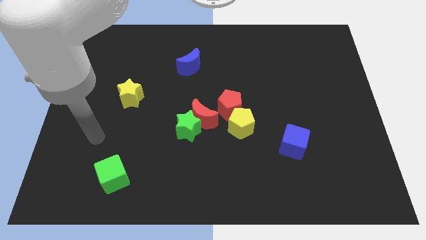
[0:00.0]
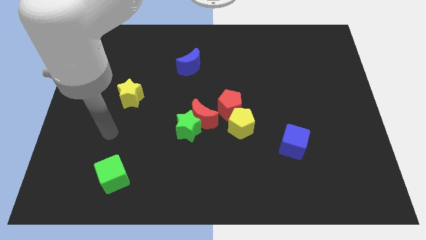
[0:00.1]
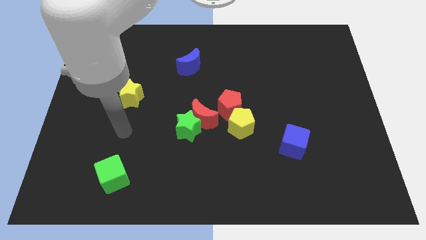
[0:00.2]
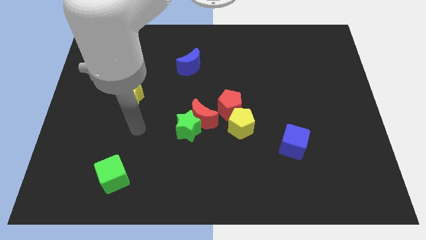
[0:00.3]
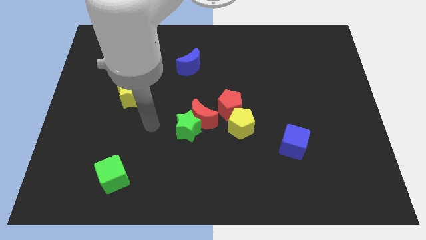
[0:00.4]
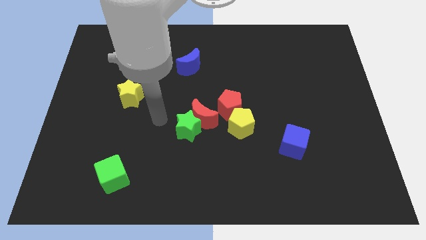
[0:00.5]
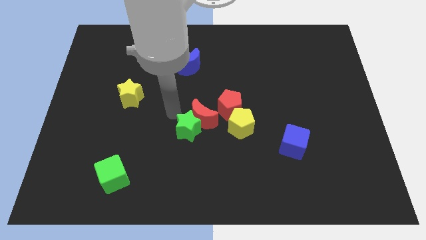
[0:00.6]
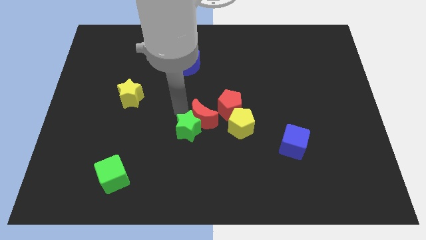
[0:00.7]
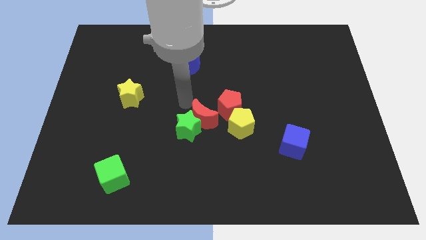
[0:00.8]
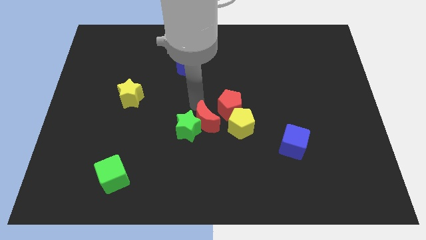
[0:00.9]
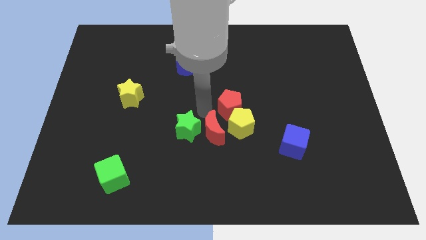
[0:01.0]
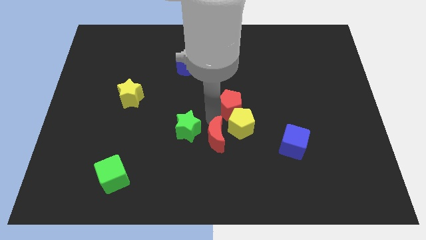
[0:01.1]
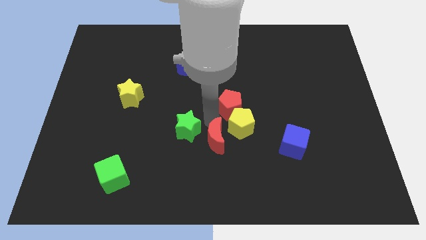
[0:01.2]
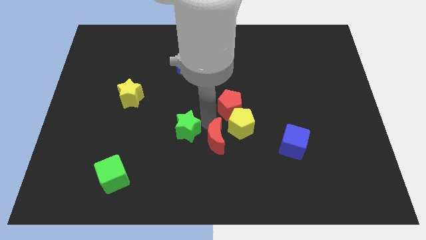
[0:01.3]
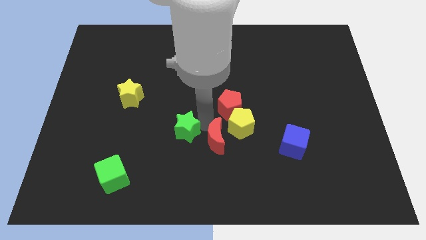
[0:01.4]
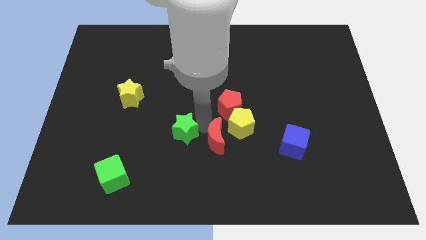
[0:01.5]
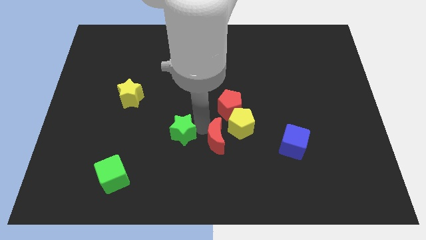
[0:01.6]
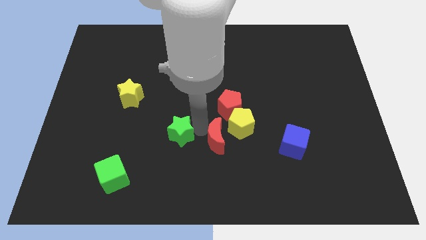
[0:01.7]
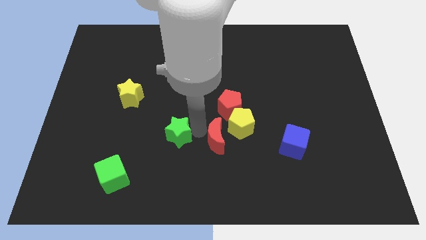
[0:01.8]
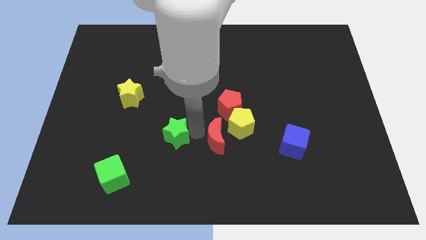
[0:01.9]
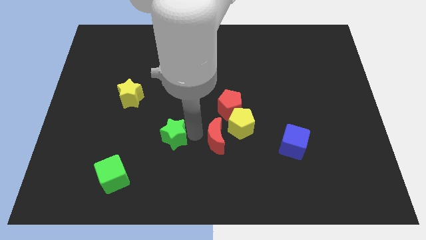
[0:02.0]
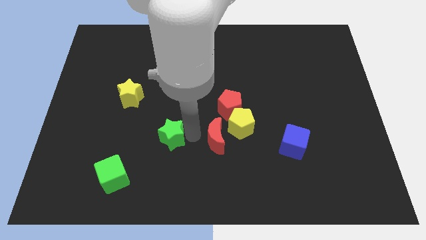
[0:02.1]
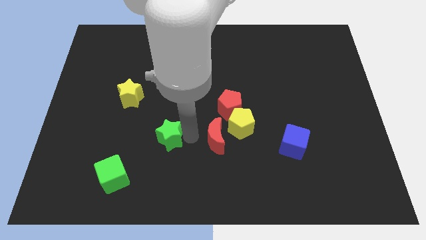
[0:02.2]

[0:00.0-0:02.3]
move the green star away from the red moon

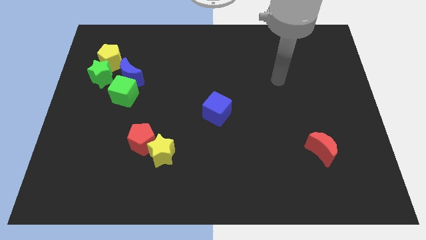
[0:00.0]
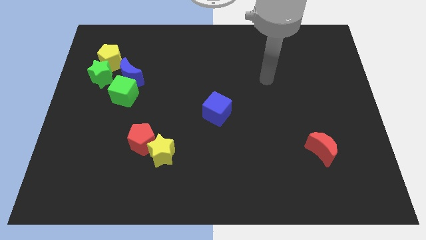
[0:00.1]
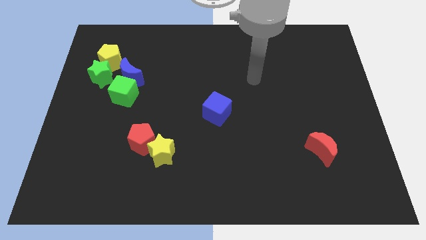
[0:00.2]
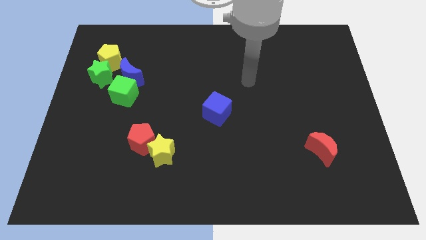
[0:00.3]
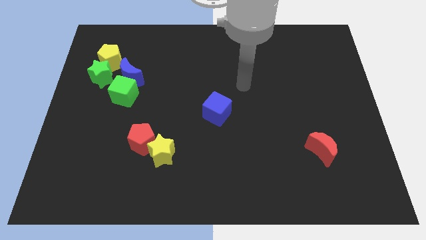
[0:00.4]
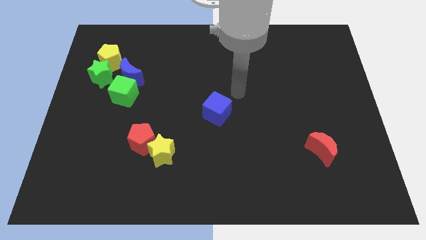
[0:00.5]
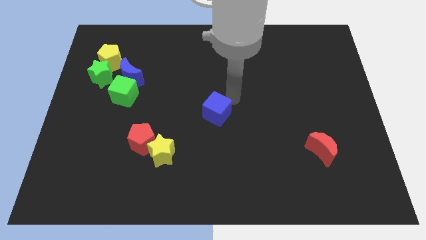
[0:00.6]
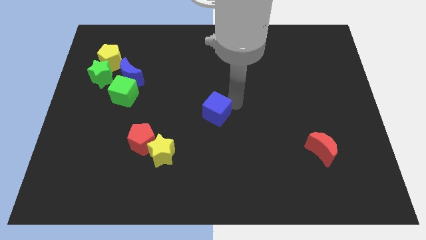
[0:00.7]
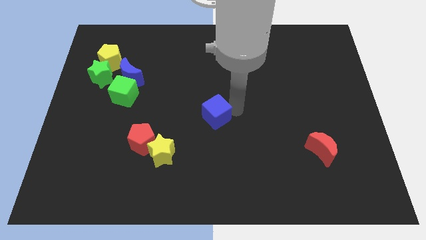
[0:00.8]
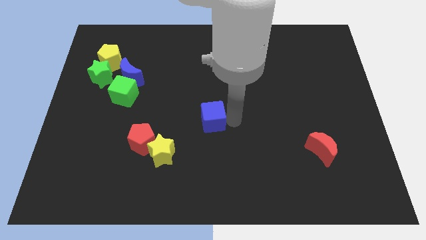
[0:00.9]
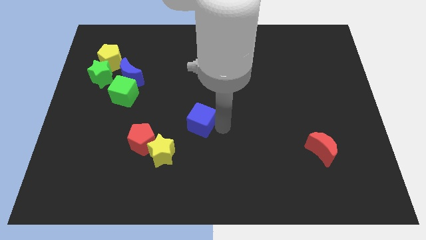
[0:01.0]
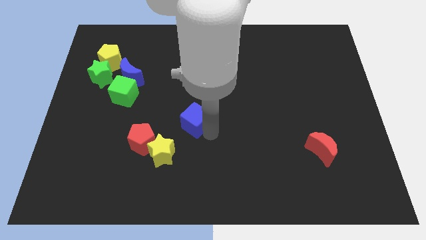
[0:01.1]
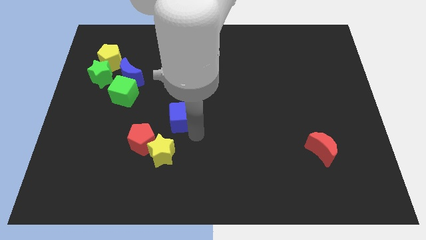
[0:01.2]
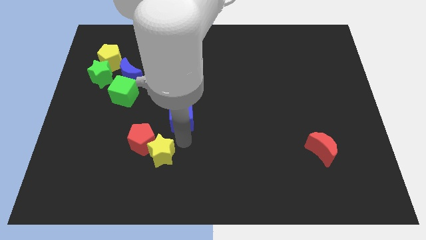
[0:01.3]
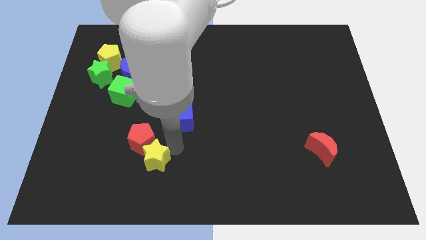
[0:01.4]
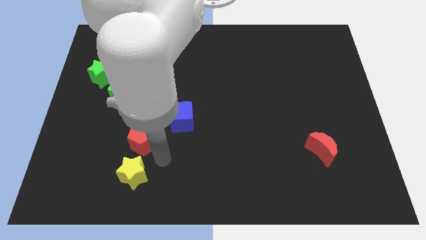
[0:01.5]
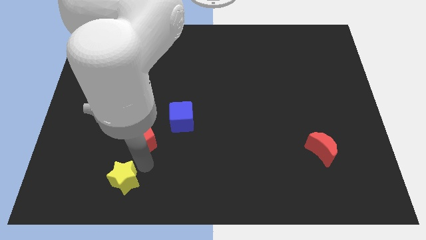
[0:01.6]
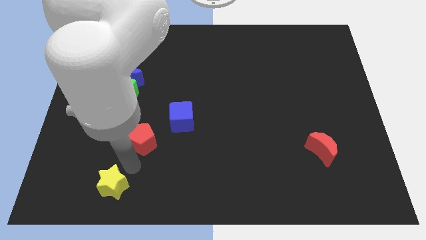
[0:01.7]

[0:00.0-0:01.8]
separate the red pentagon from the yellow star

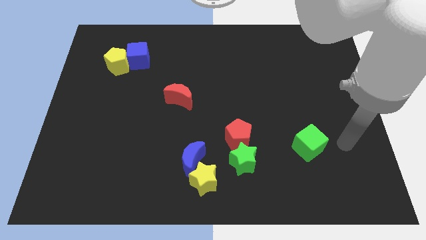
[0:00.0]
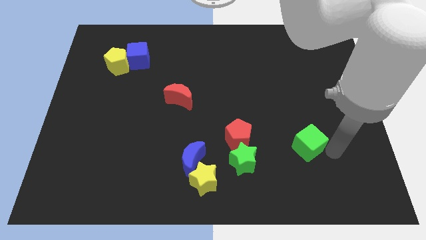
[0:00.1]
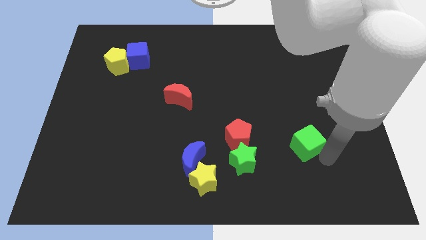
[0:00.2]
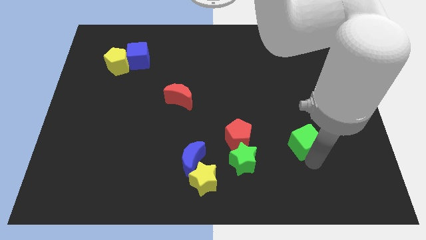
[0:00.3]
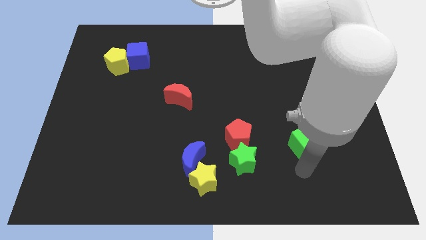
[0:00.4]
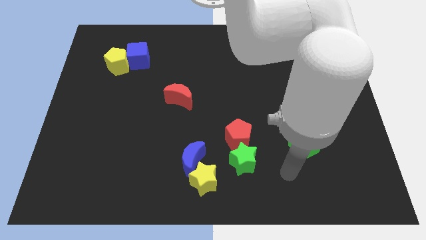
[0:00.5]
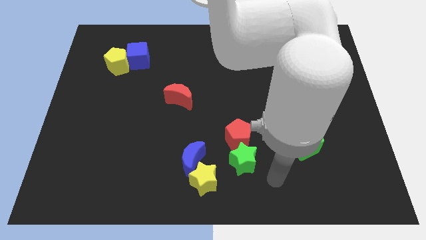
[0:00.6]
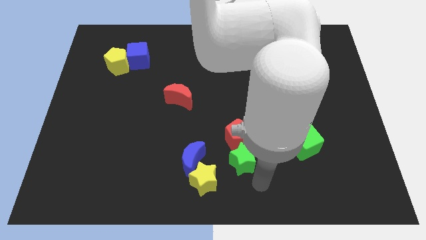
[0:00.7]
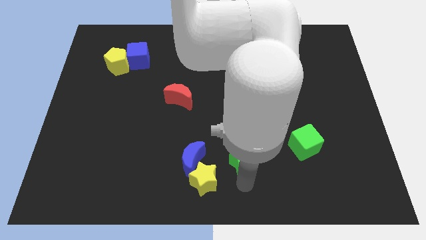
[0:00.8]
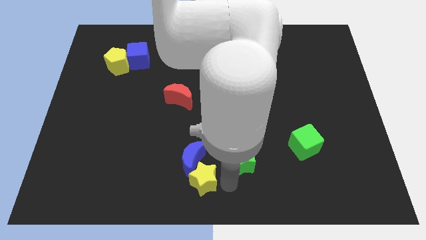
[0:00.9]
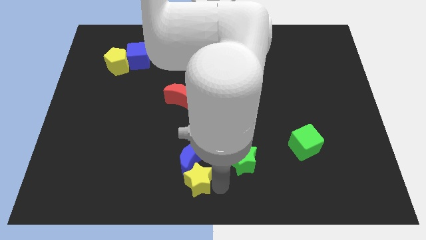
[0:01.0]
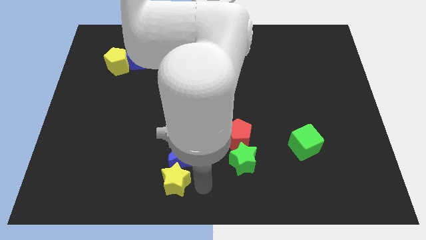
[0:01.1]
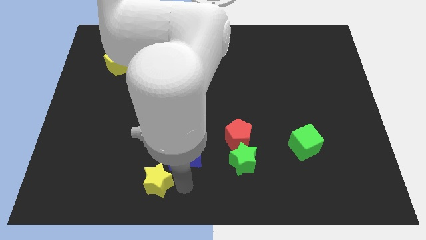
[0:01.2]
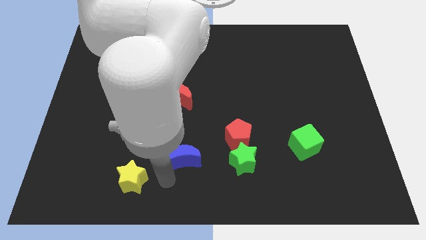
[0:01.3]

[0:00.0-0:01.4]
pull the blue moon apart from the yellow star

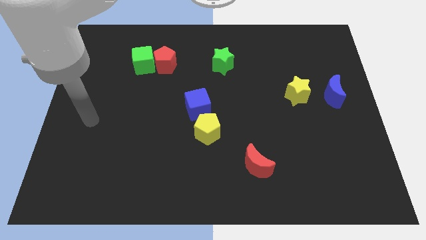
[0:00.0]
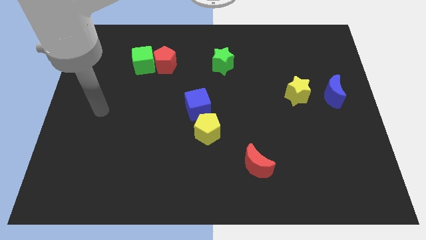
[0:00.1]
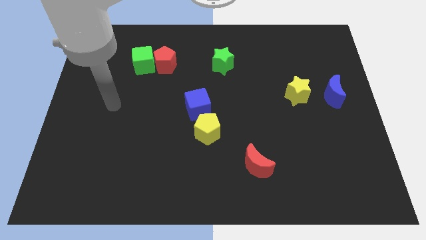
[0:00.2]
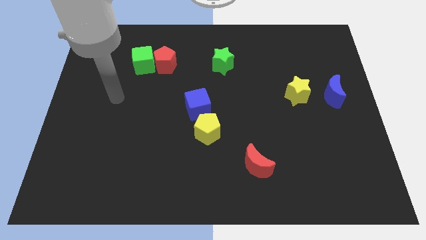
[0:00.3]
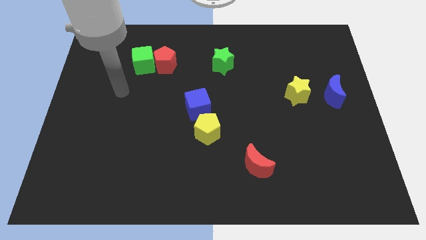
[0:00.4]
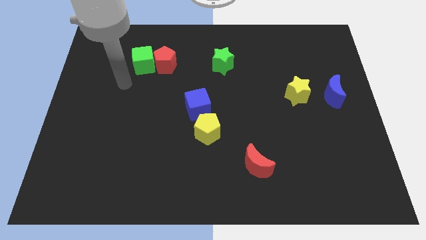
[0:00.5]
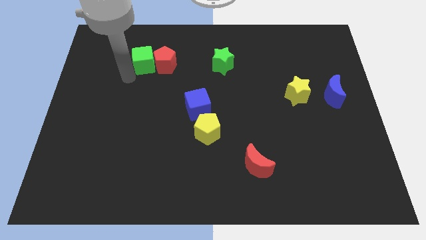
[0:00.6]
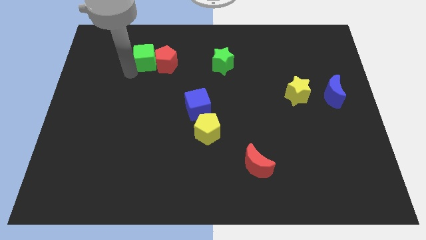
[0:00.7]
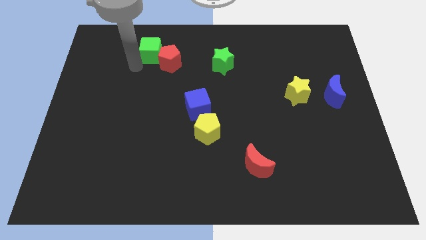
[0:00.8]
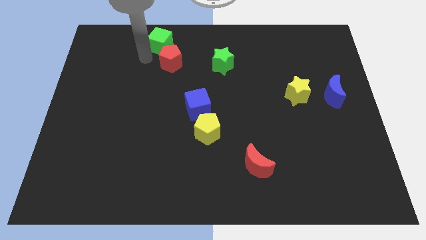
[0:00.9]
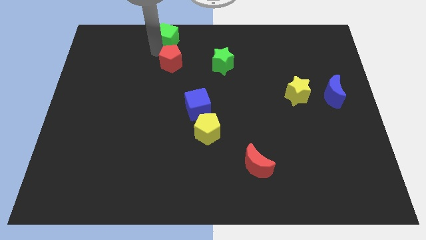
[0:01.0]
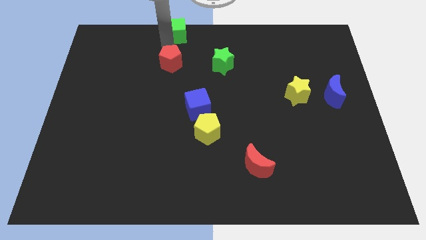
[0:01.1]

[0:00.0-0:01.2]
separate the red pentagon from the green cube

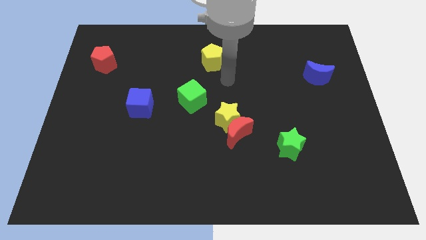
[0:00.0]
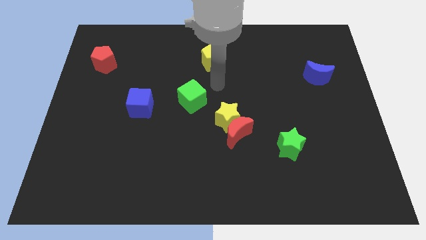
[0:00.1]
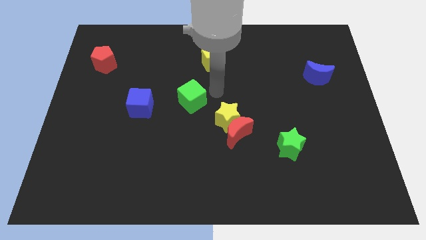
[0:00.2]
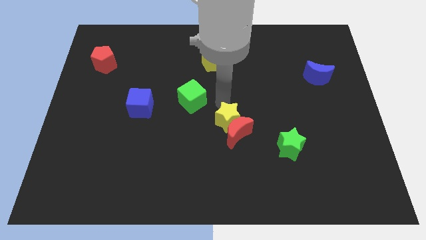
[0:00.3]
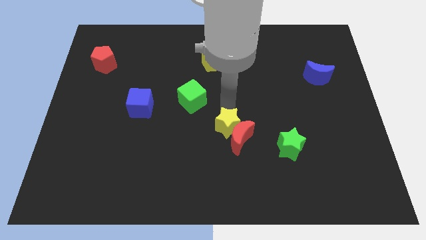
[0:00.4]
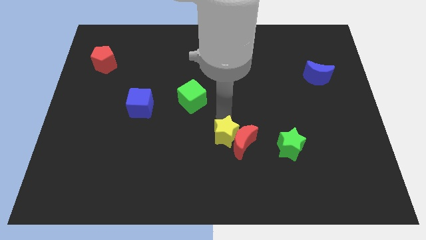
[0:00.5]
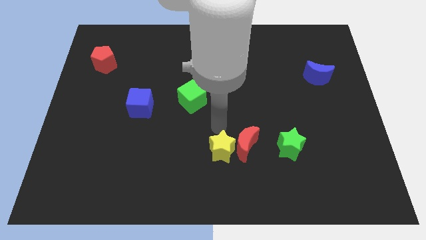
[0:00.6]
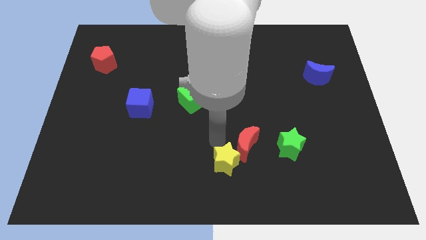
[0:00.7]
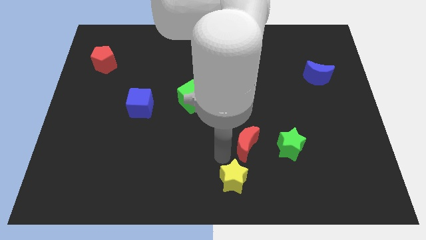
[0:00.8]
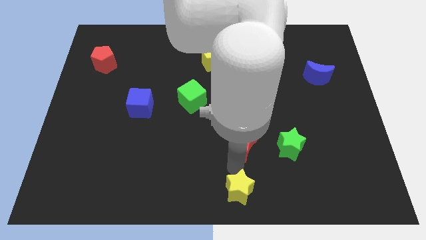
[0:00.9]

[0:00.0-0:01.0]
separate the red moon from the yellow star

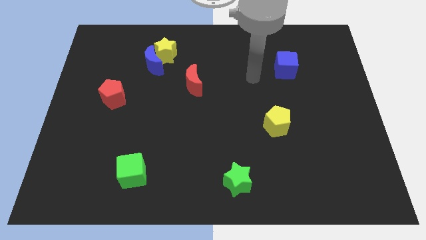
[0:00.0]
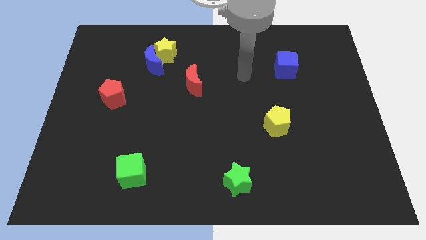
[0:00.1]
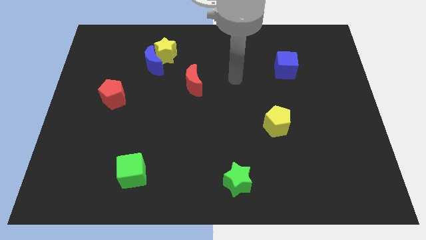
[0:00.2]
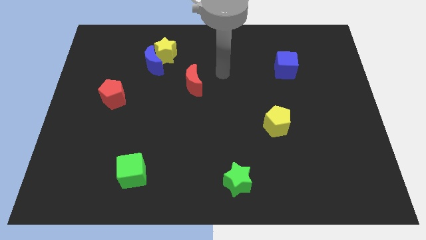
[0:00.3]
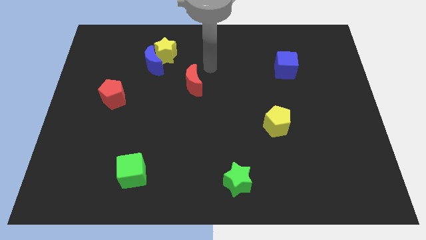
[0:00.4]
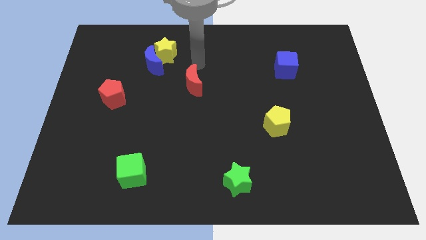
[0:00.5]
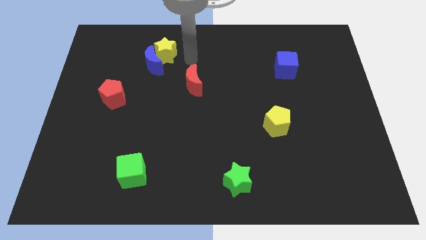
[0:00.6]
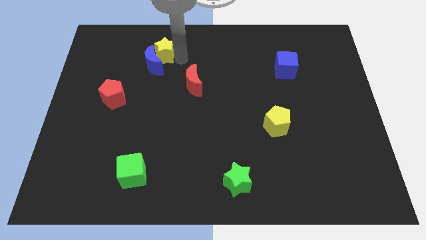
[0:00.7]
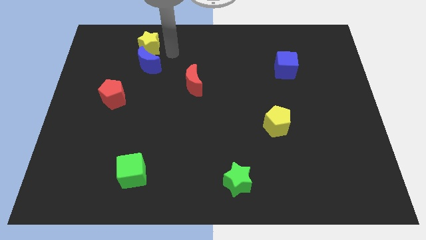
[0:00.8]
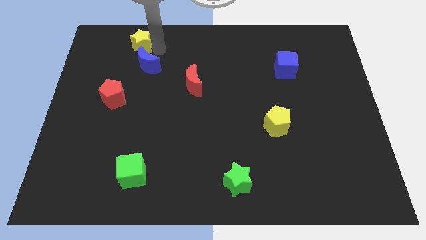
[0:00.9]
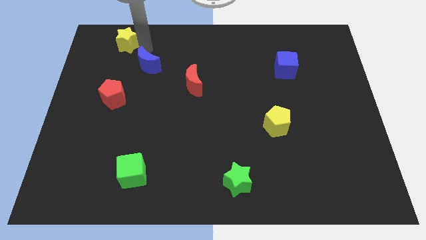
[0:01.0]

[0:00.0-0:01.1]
move the blue moon away from the yellow star

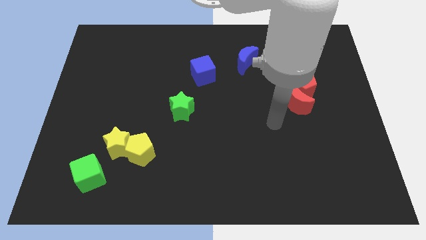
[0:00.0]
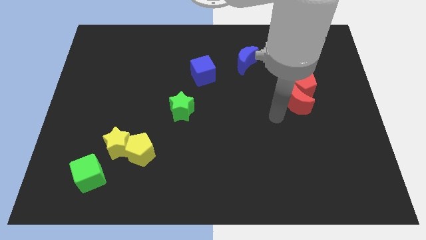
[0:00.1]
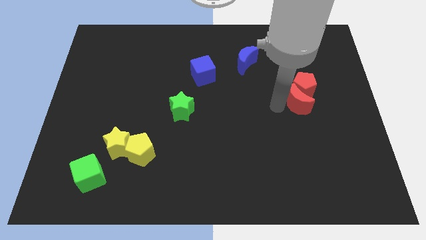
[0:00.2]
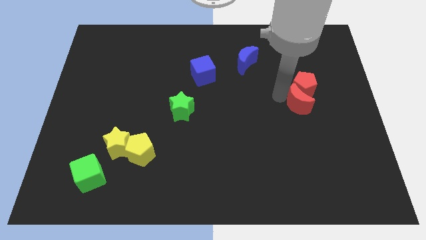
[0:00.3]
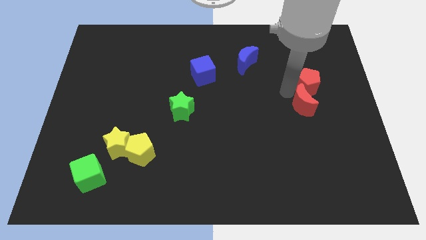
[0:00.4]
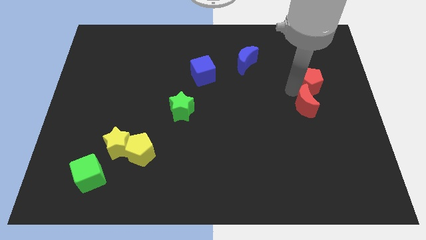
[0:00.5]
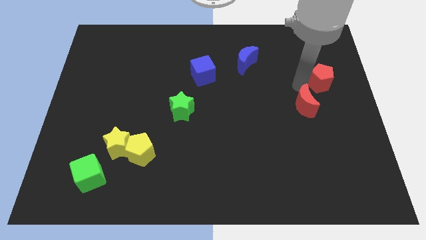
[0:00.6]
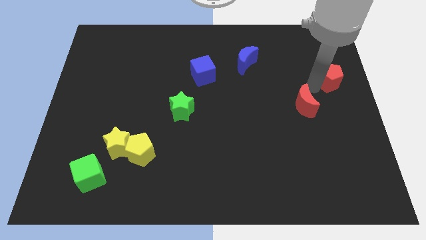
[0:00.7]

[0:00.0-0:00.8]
pull the red moon apart from the red pentagon
